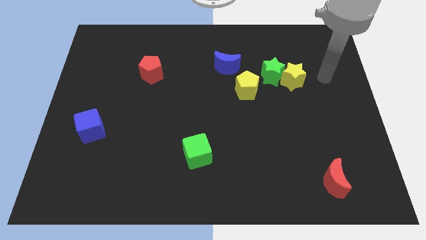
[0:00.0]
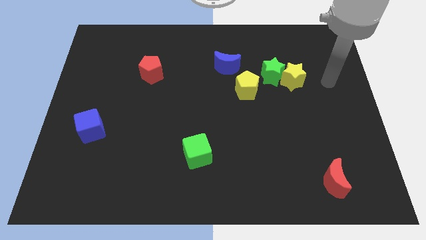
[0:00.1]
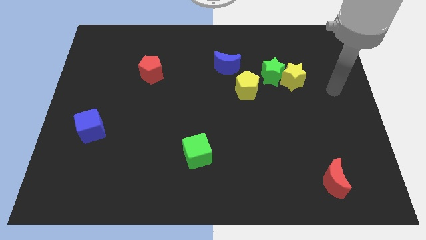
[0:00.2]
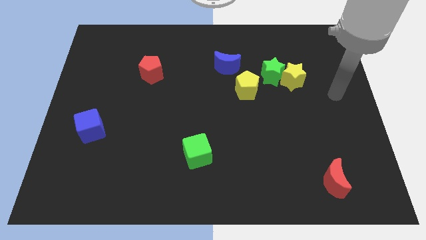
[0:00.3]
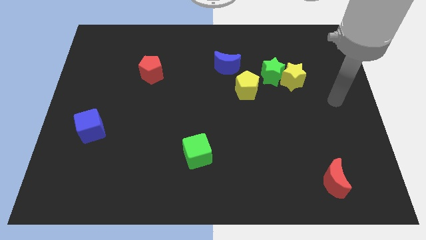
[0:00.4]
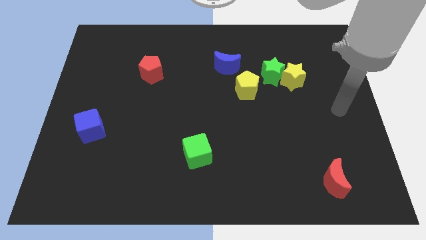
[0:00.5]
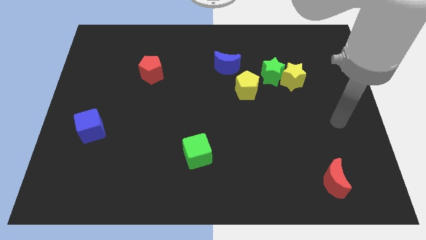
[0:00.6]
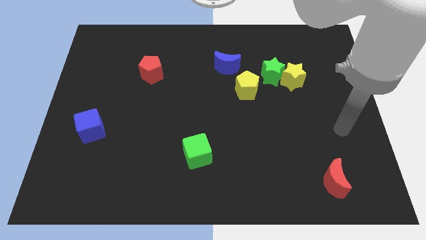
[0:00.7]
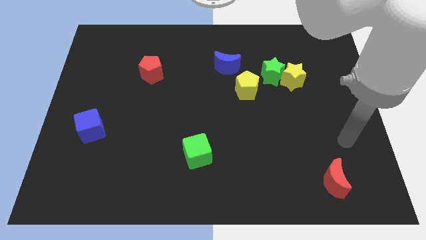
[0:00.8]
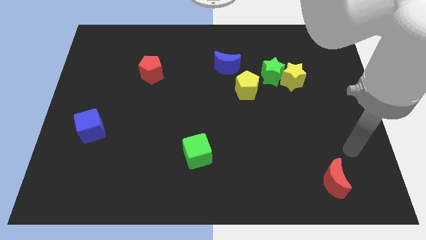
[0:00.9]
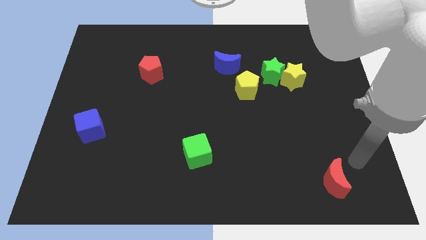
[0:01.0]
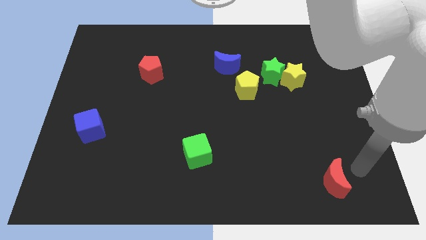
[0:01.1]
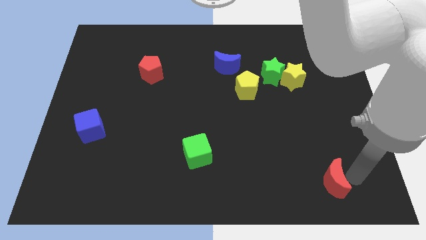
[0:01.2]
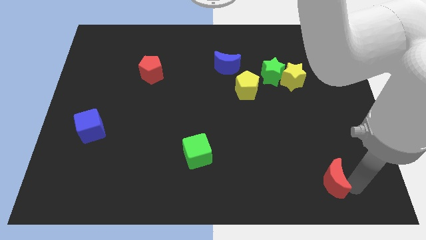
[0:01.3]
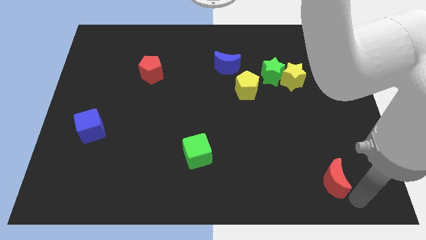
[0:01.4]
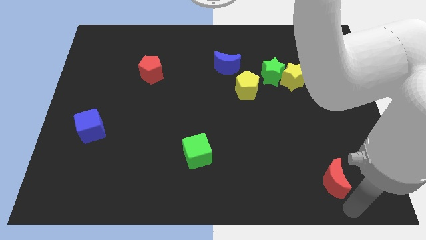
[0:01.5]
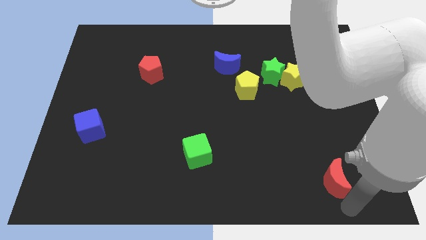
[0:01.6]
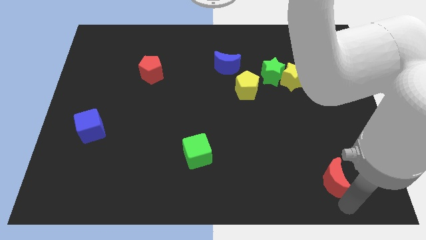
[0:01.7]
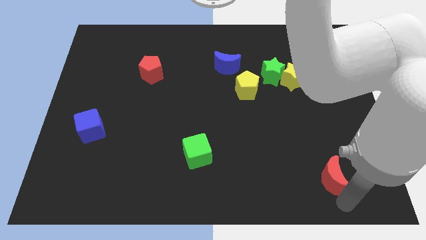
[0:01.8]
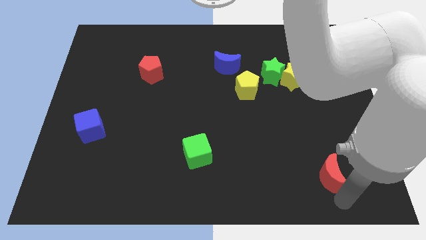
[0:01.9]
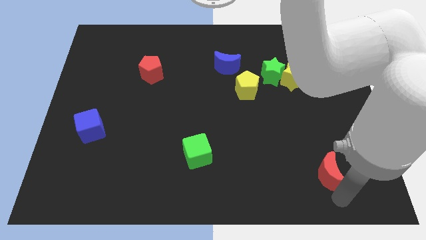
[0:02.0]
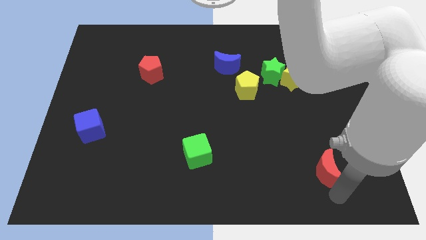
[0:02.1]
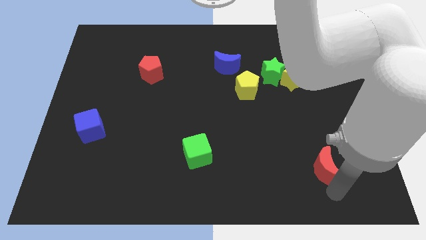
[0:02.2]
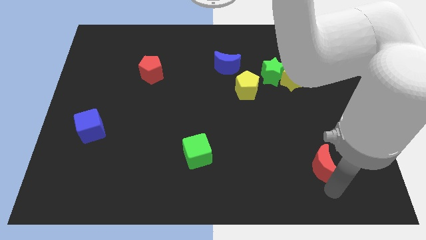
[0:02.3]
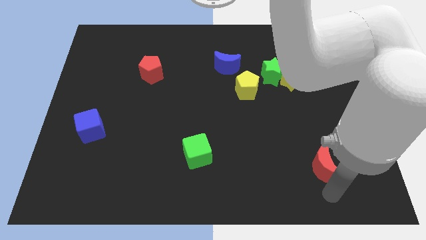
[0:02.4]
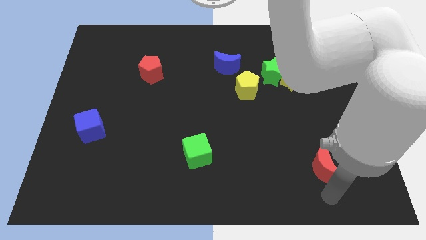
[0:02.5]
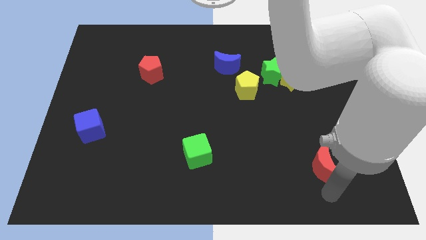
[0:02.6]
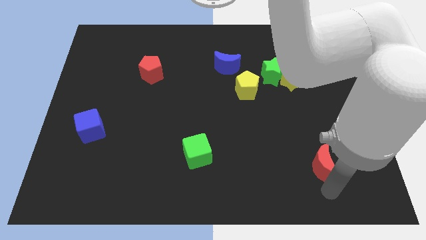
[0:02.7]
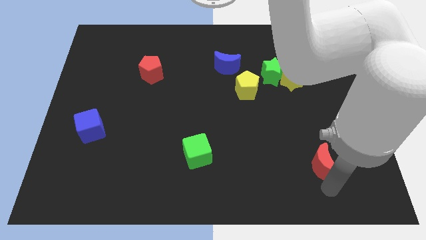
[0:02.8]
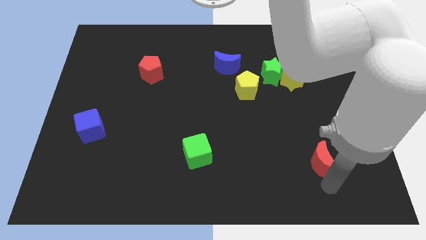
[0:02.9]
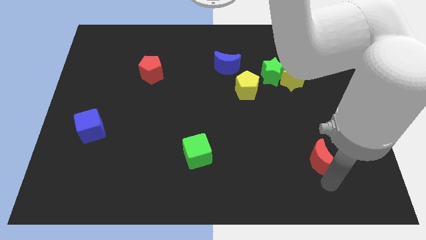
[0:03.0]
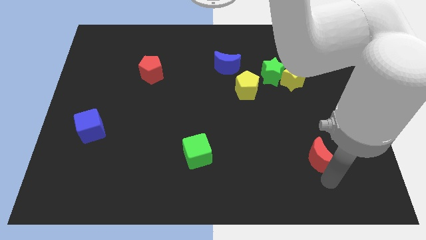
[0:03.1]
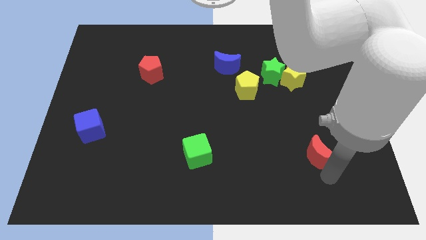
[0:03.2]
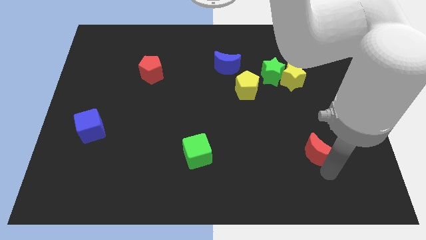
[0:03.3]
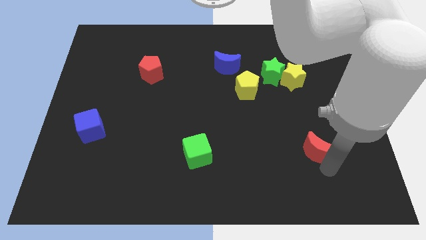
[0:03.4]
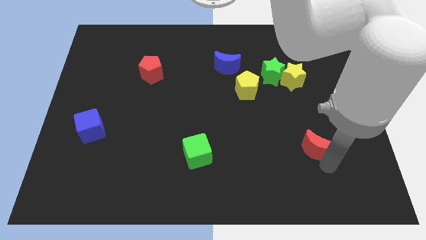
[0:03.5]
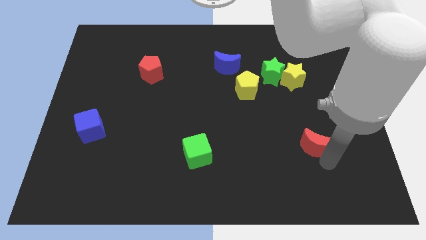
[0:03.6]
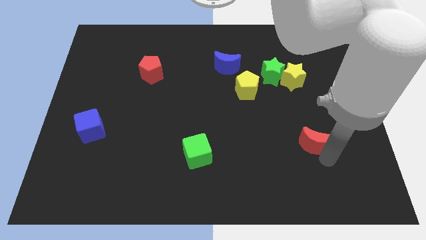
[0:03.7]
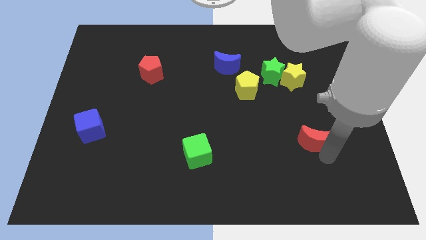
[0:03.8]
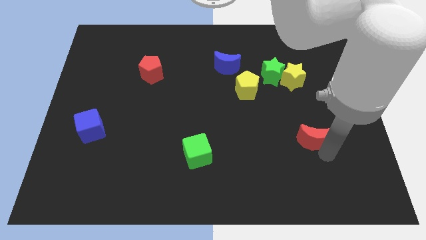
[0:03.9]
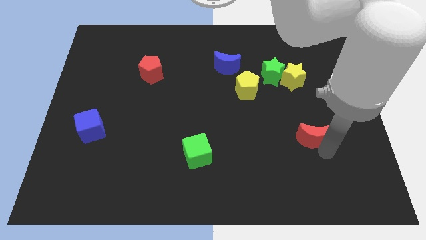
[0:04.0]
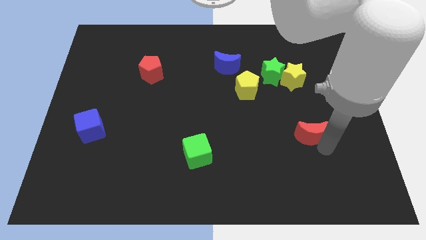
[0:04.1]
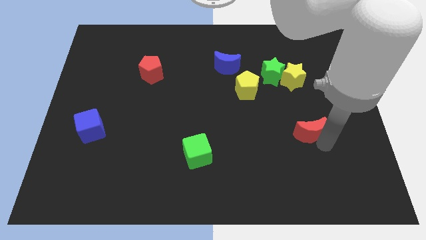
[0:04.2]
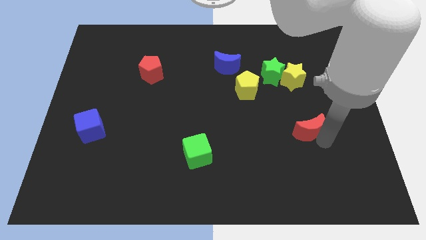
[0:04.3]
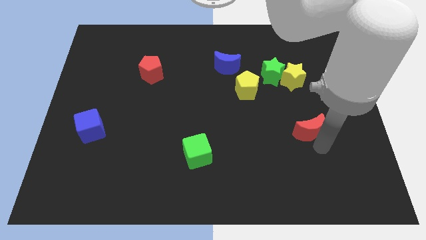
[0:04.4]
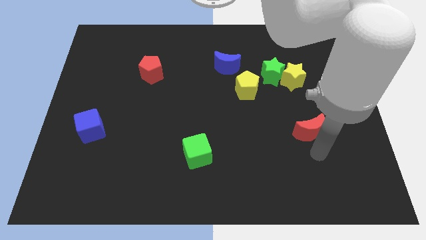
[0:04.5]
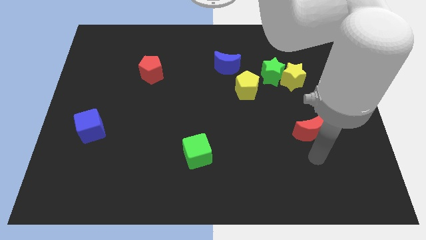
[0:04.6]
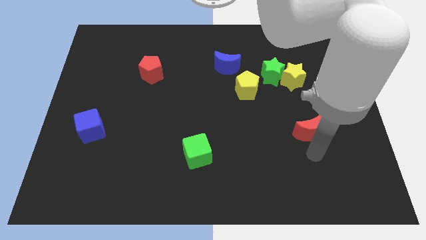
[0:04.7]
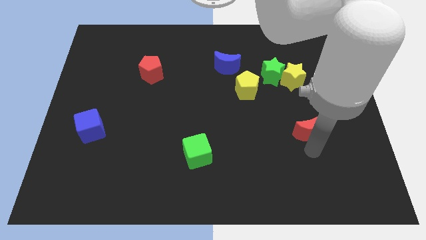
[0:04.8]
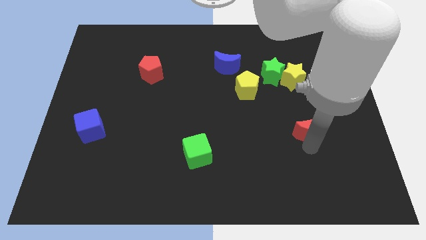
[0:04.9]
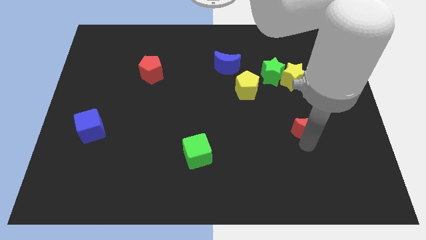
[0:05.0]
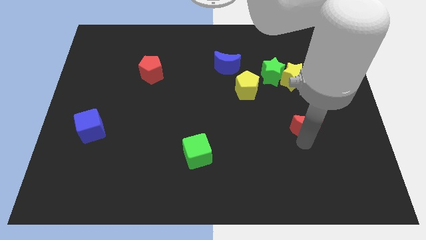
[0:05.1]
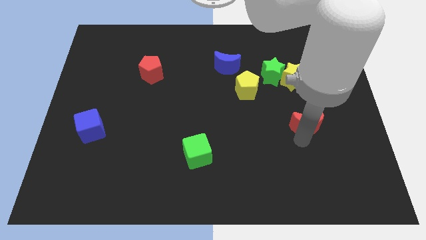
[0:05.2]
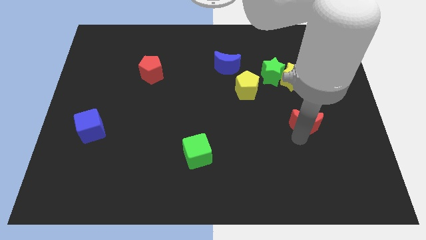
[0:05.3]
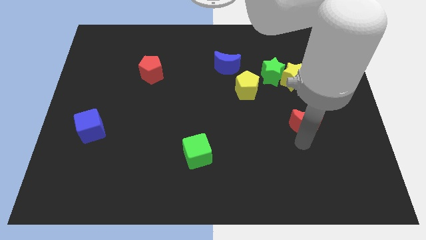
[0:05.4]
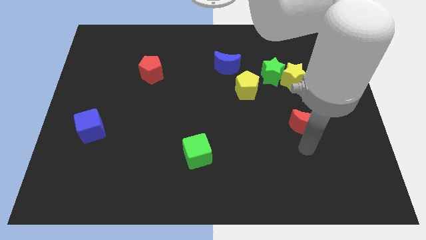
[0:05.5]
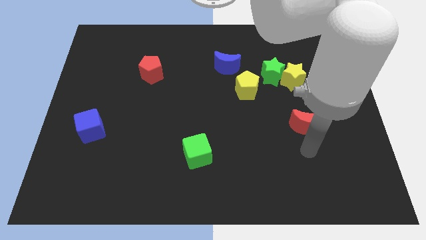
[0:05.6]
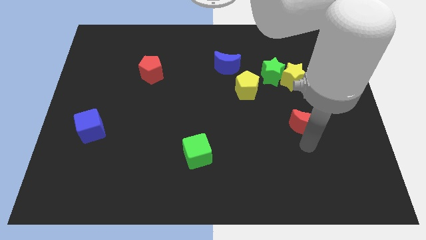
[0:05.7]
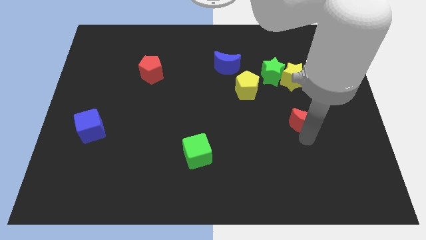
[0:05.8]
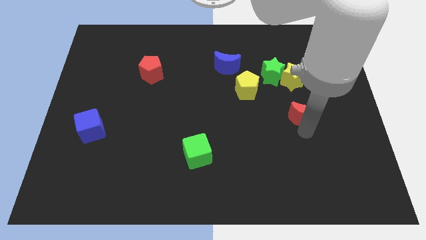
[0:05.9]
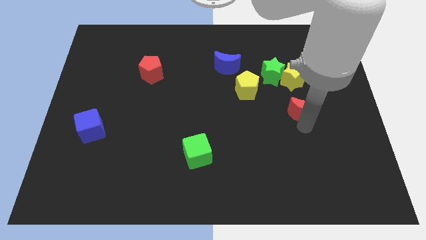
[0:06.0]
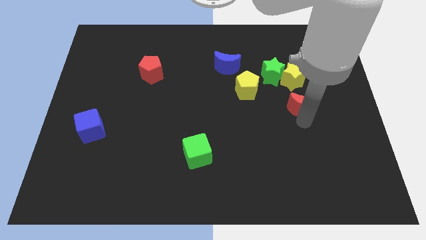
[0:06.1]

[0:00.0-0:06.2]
push the red moon to the bottom right side of the green star
